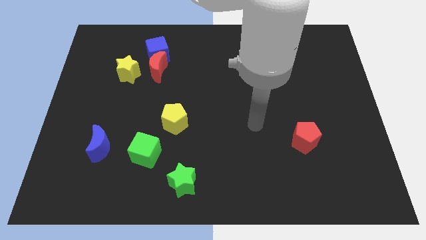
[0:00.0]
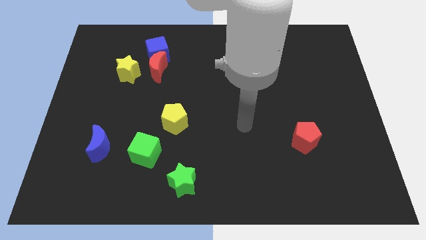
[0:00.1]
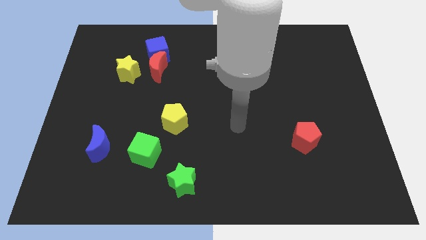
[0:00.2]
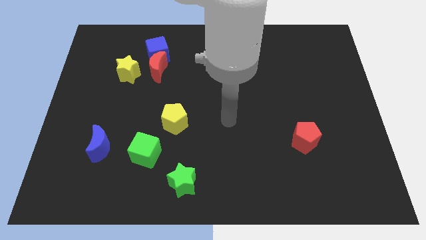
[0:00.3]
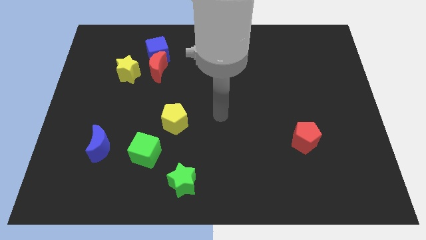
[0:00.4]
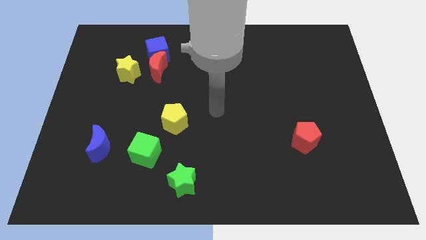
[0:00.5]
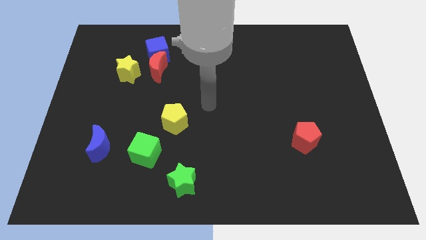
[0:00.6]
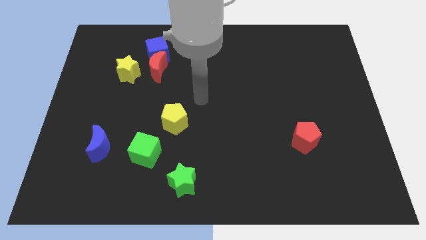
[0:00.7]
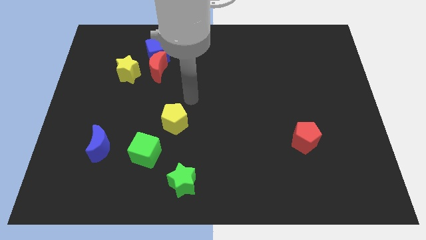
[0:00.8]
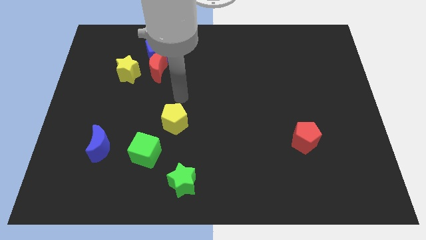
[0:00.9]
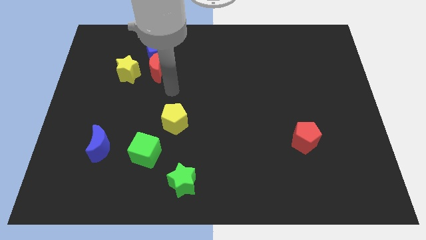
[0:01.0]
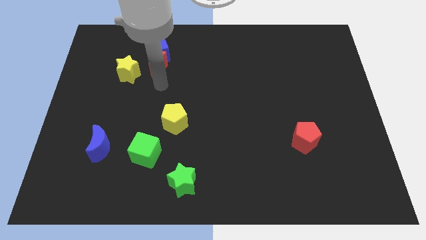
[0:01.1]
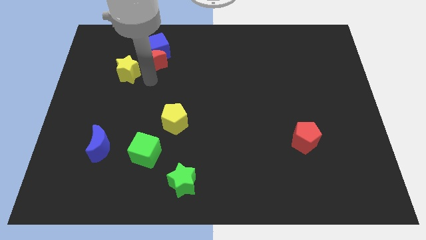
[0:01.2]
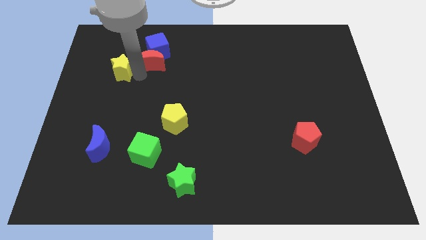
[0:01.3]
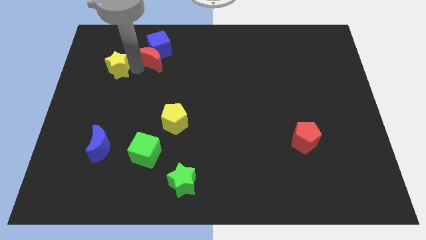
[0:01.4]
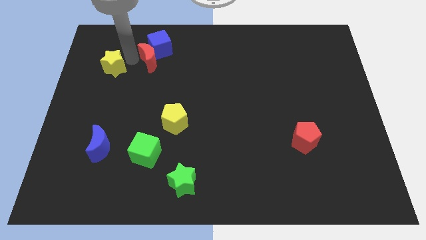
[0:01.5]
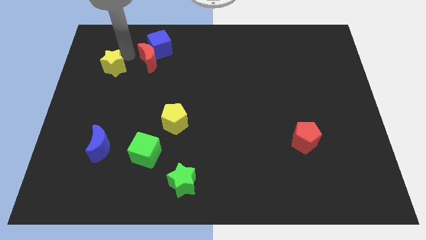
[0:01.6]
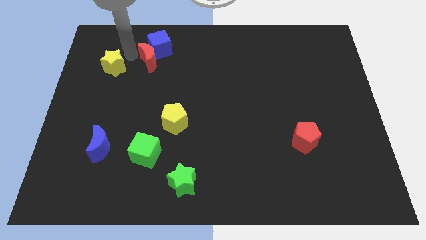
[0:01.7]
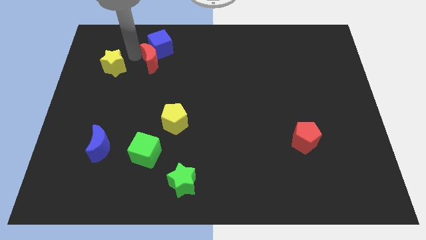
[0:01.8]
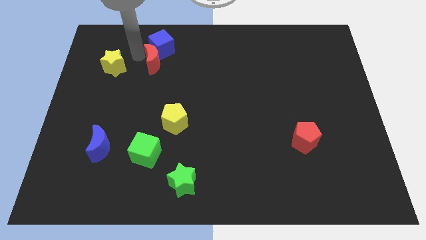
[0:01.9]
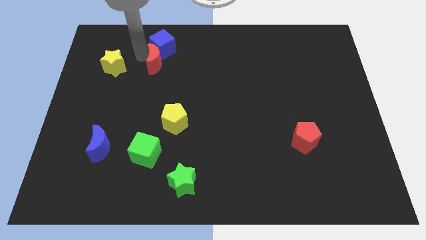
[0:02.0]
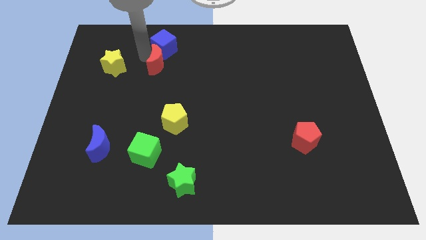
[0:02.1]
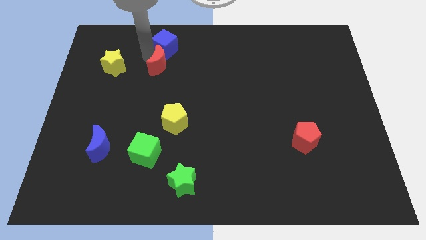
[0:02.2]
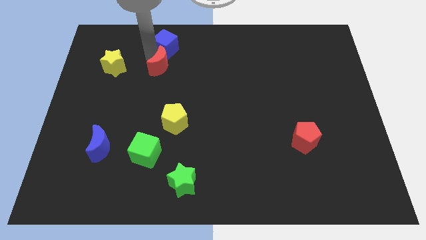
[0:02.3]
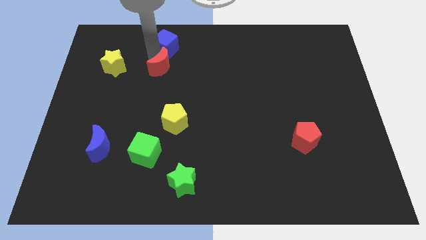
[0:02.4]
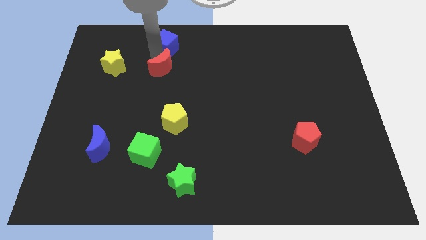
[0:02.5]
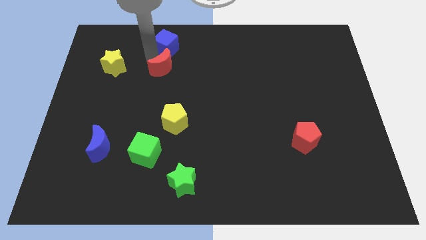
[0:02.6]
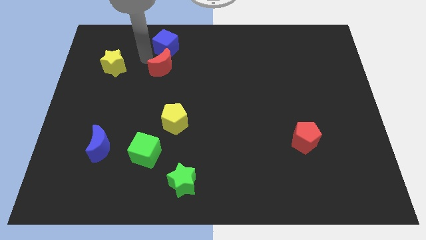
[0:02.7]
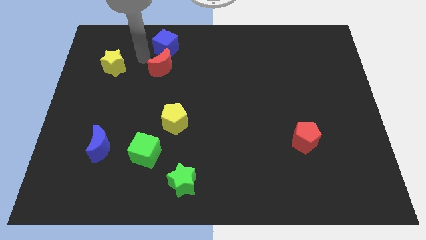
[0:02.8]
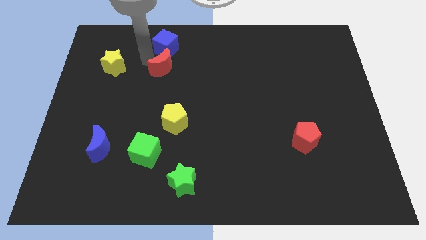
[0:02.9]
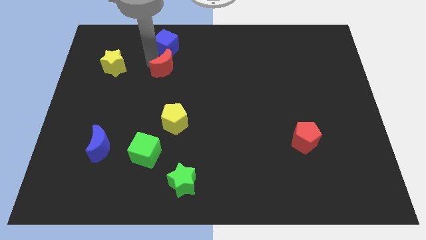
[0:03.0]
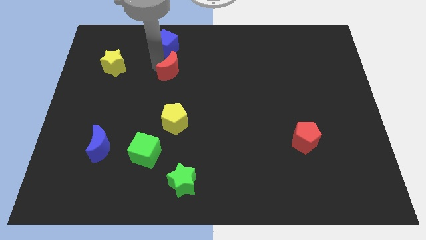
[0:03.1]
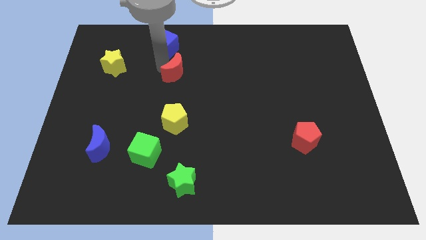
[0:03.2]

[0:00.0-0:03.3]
pull the red moon apart from the blue cube and yellow star

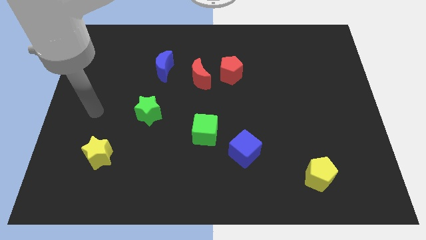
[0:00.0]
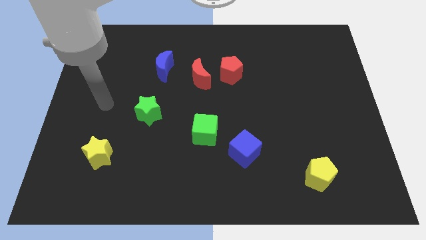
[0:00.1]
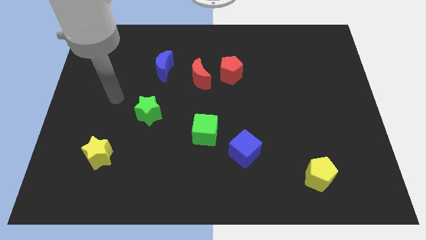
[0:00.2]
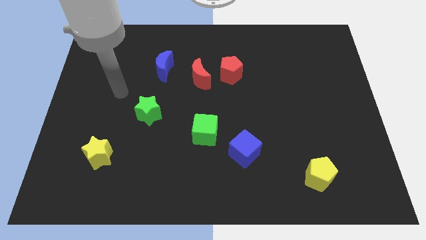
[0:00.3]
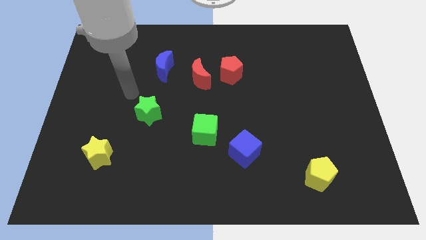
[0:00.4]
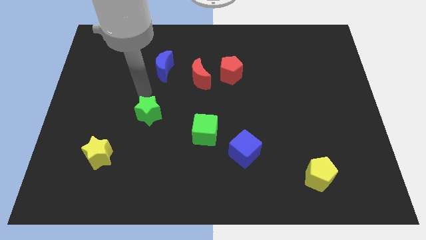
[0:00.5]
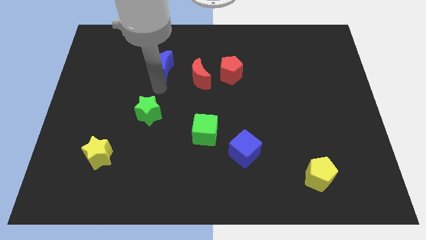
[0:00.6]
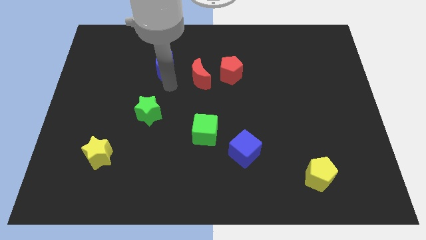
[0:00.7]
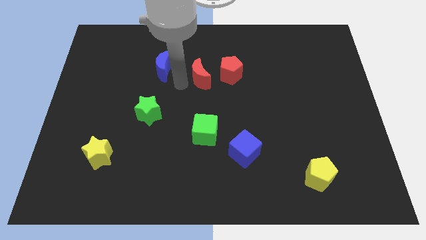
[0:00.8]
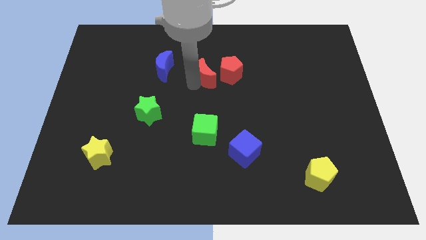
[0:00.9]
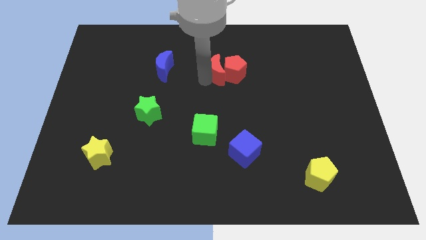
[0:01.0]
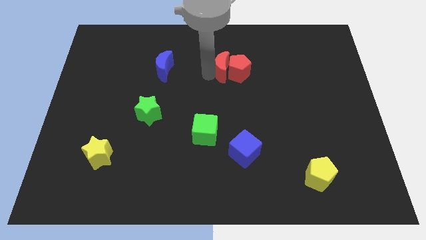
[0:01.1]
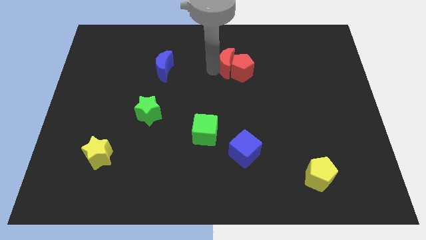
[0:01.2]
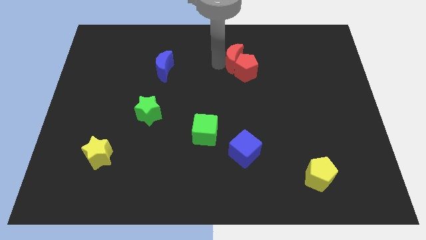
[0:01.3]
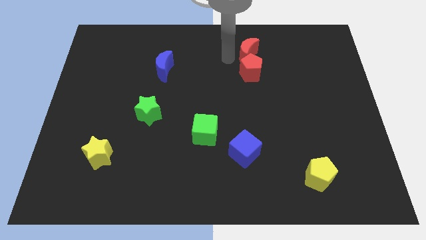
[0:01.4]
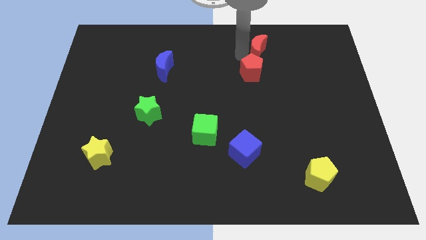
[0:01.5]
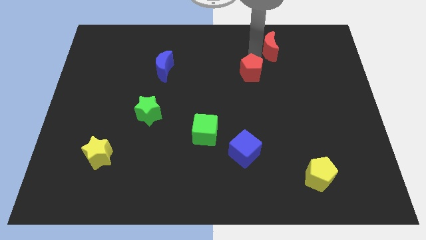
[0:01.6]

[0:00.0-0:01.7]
separate the red pentagon from the red moon

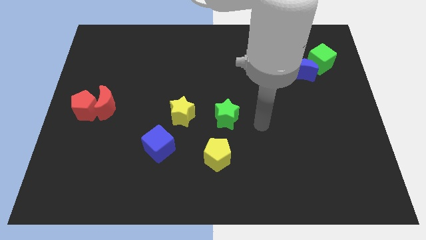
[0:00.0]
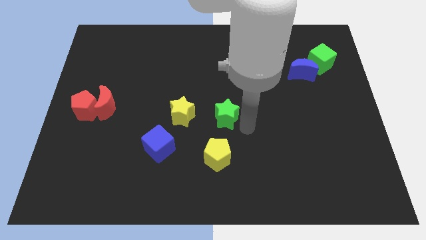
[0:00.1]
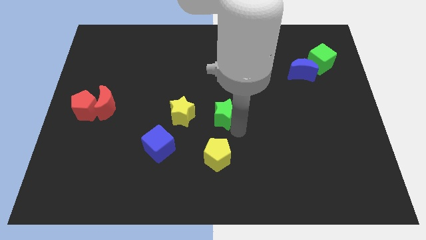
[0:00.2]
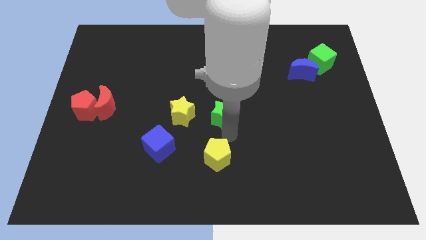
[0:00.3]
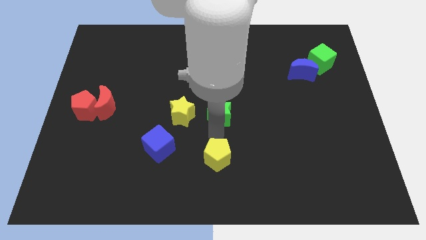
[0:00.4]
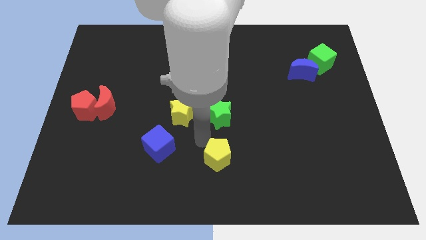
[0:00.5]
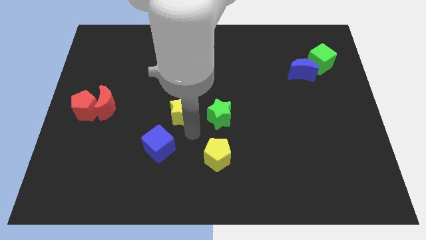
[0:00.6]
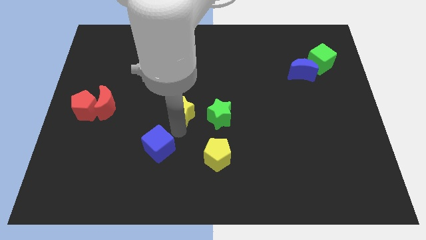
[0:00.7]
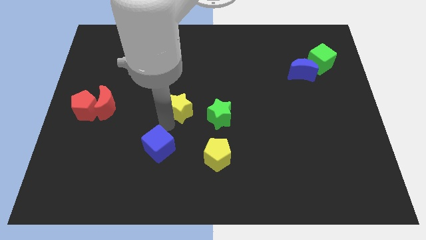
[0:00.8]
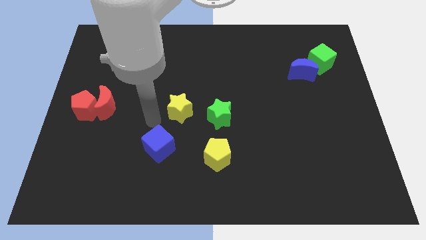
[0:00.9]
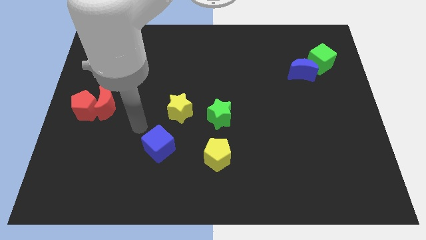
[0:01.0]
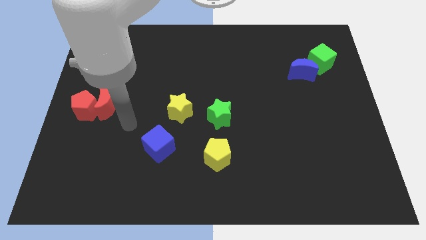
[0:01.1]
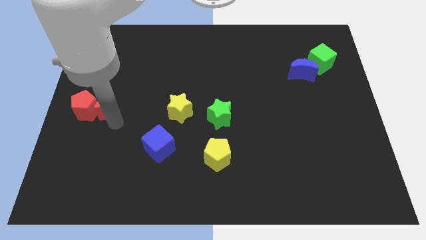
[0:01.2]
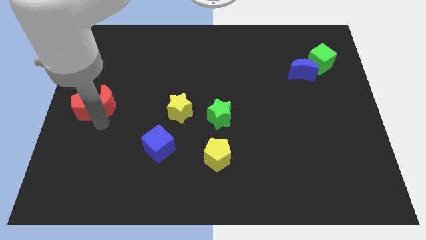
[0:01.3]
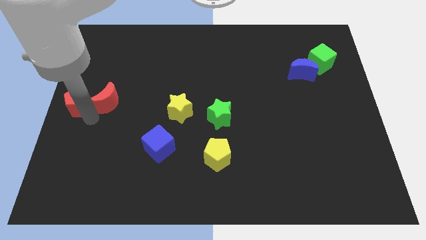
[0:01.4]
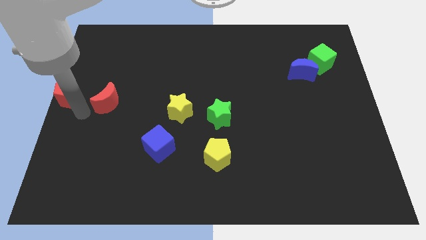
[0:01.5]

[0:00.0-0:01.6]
separate the red moon from the red pentagon

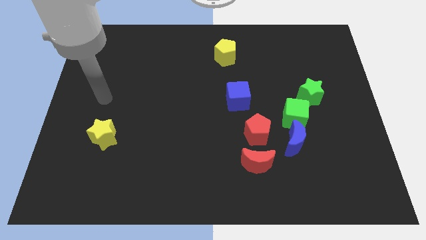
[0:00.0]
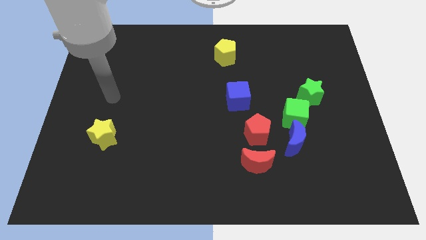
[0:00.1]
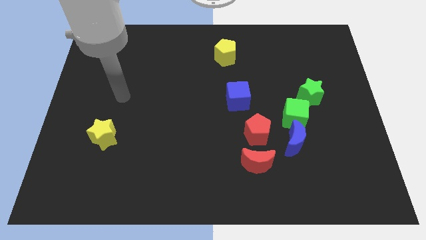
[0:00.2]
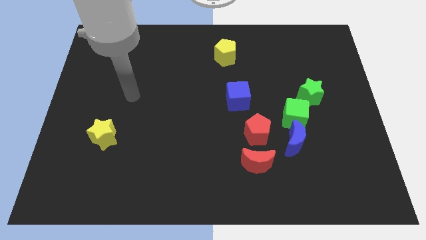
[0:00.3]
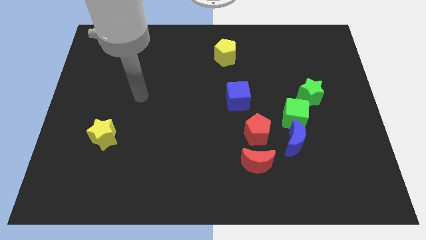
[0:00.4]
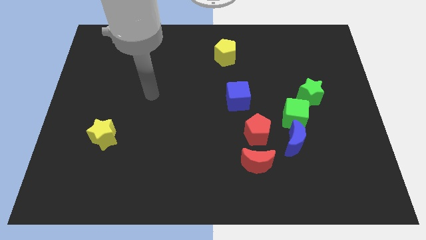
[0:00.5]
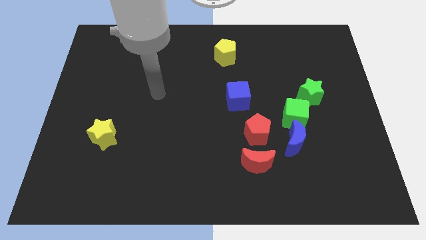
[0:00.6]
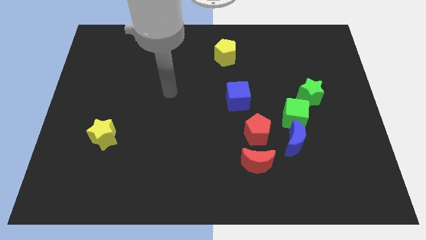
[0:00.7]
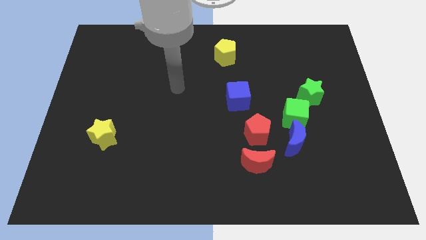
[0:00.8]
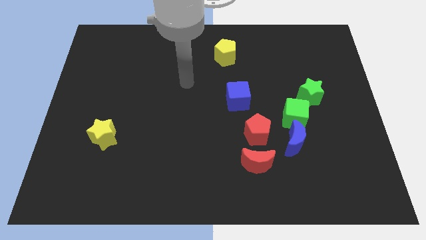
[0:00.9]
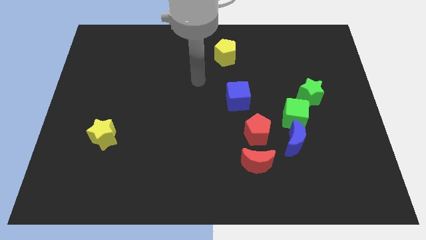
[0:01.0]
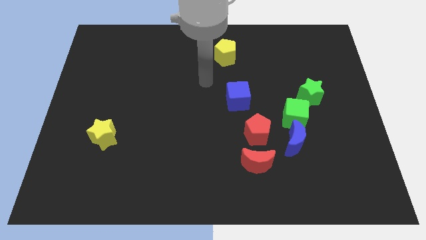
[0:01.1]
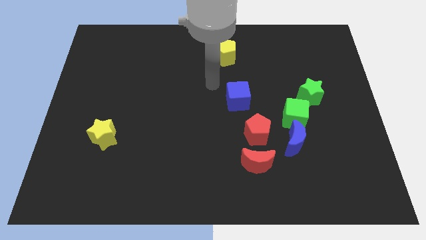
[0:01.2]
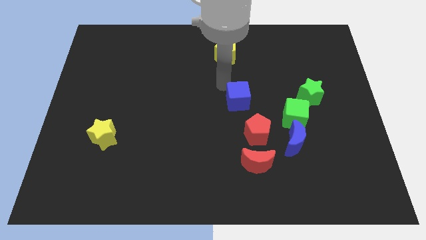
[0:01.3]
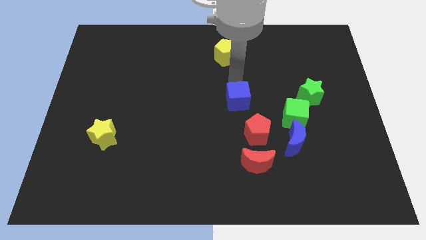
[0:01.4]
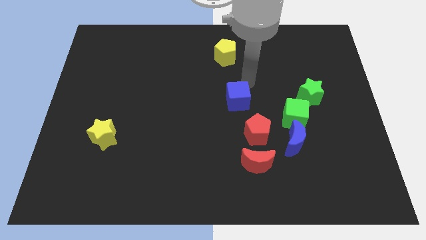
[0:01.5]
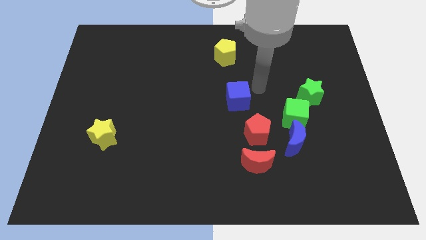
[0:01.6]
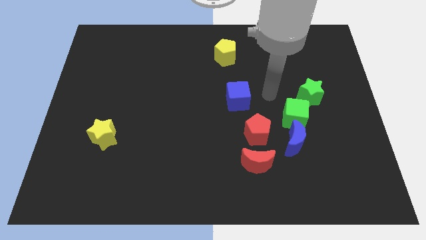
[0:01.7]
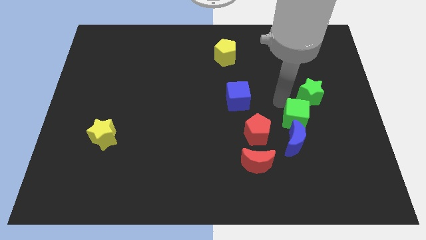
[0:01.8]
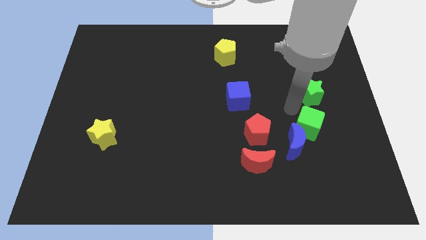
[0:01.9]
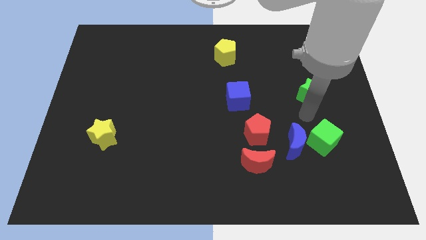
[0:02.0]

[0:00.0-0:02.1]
pull the green star apart from the green cube

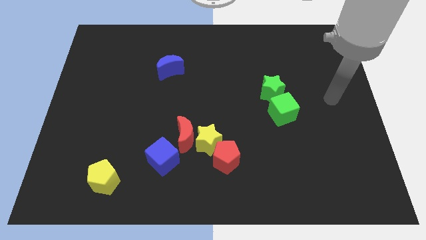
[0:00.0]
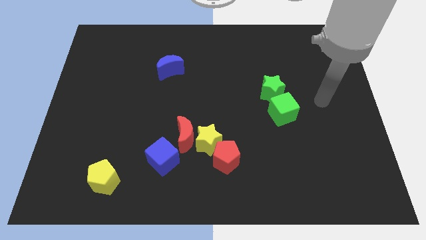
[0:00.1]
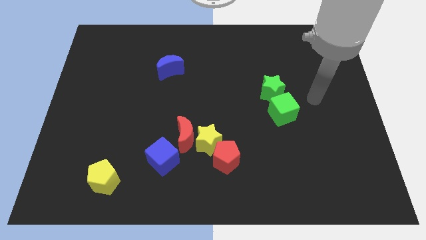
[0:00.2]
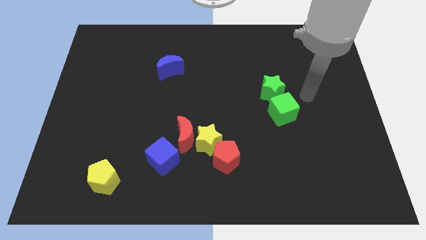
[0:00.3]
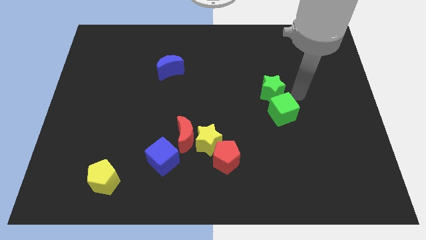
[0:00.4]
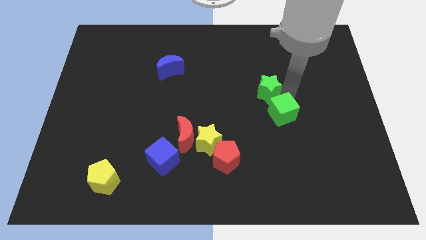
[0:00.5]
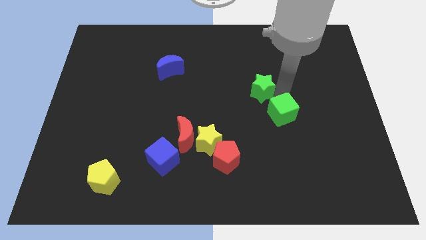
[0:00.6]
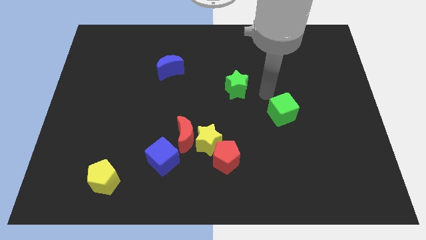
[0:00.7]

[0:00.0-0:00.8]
separate the green cube from the green star
